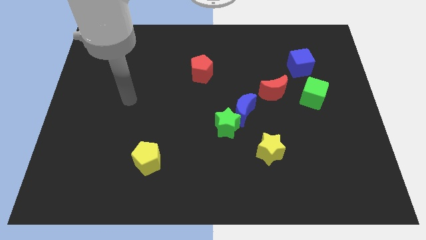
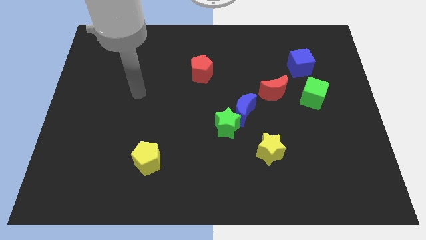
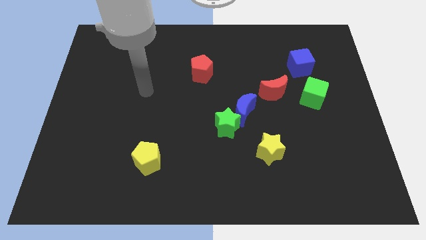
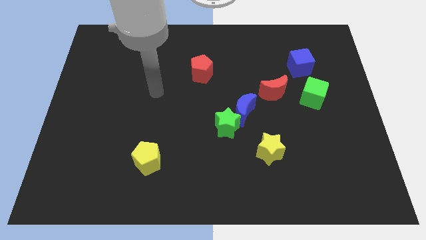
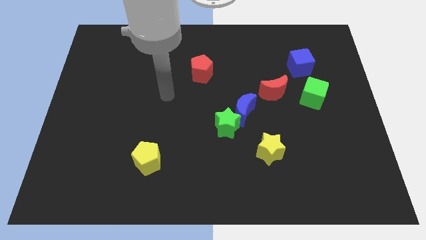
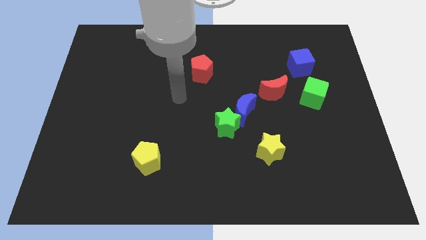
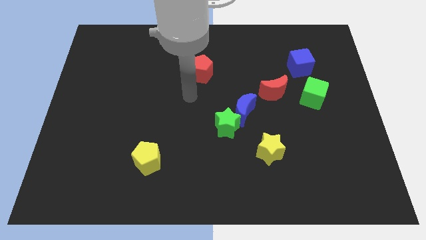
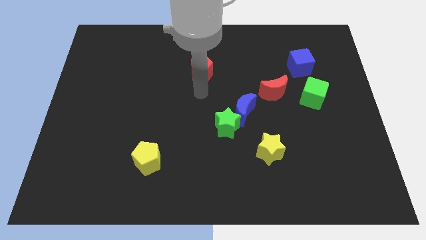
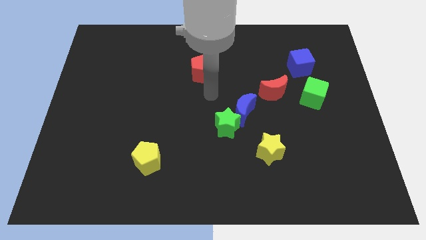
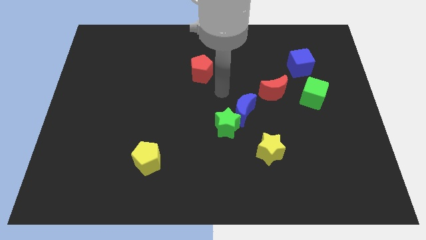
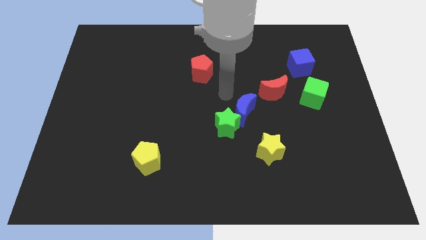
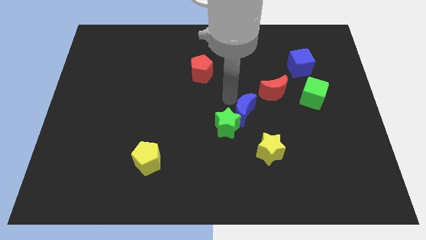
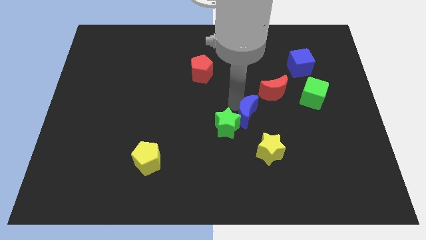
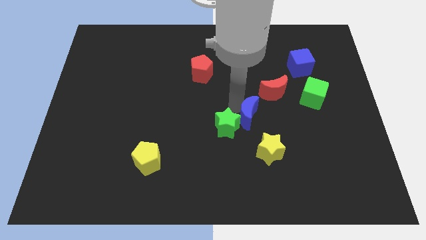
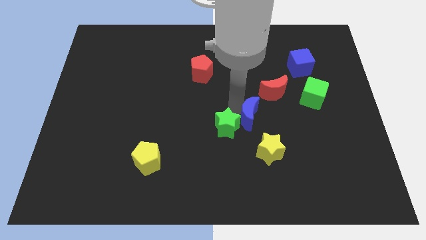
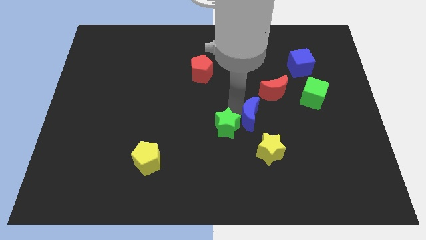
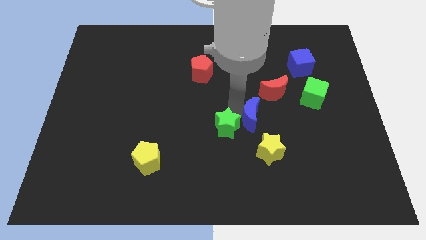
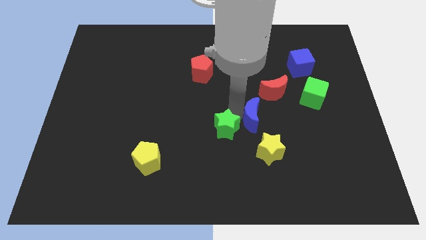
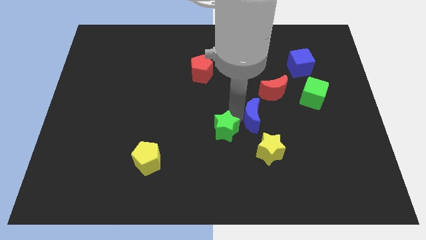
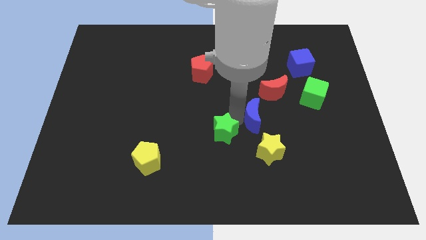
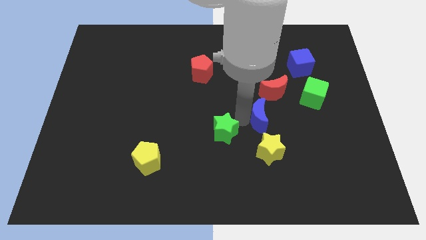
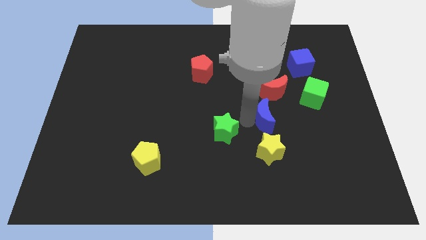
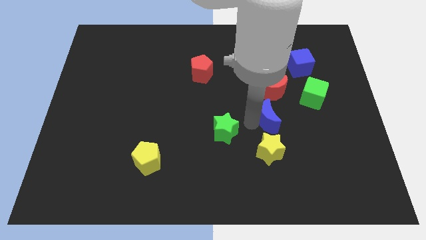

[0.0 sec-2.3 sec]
move the green star away from the blue moon

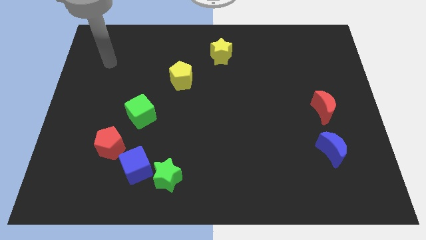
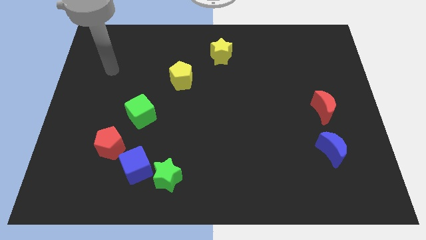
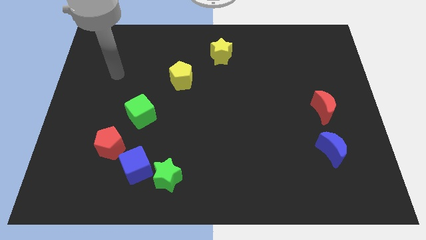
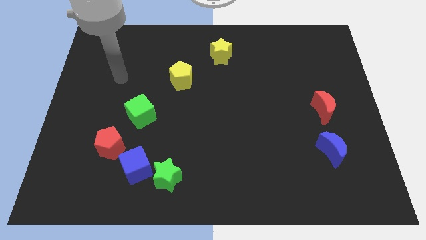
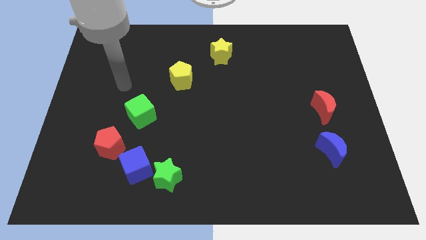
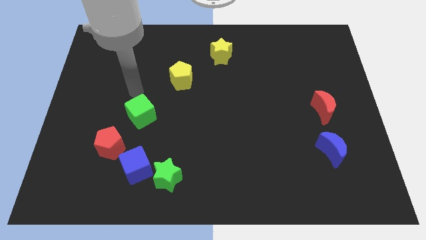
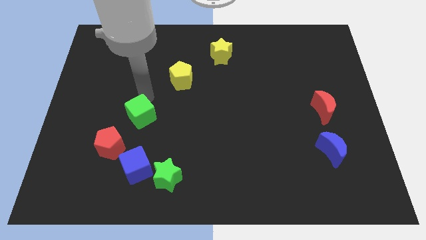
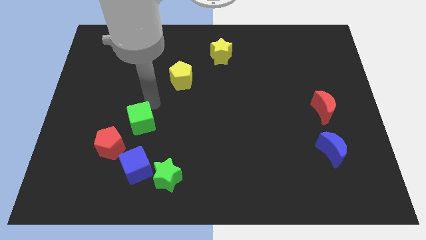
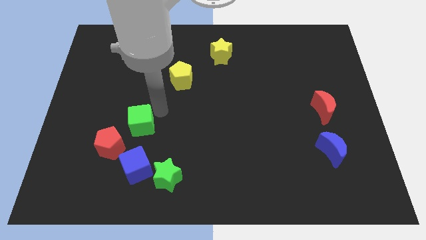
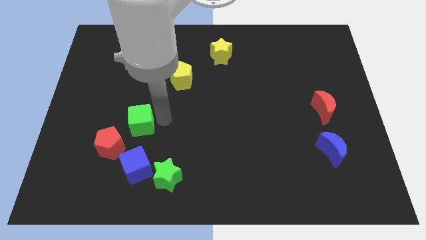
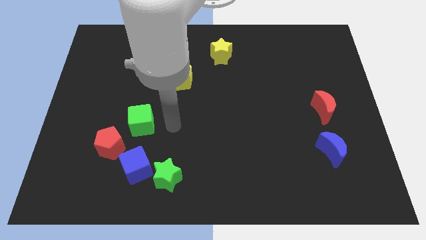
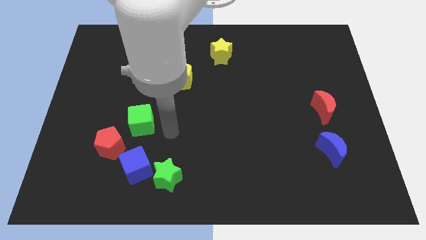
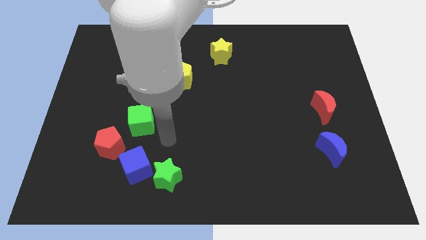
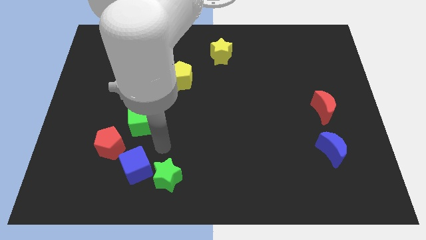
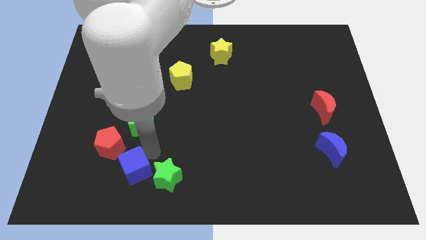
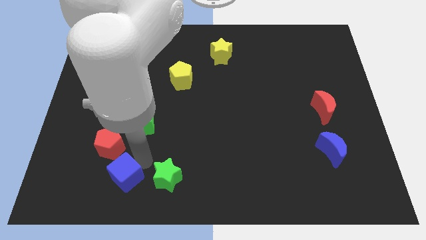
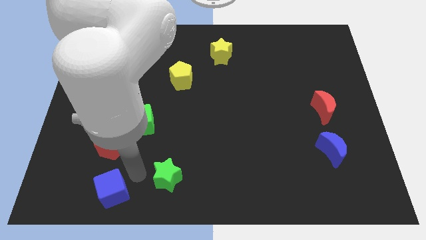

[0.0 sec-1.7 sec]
move the green star away from the blue cube

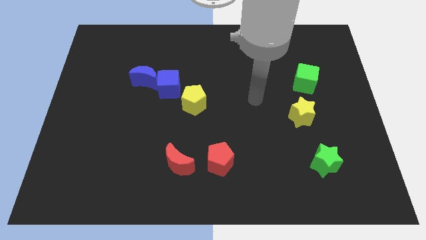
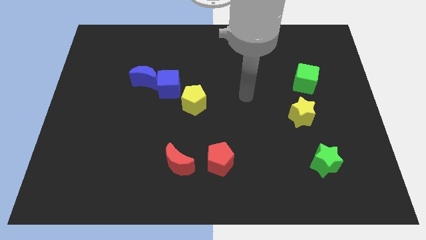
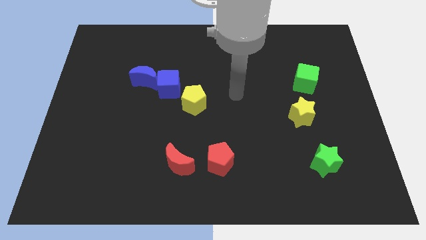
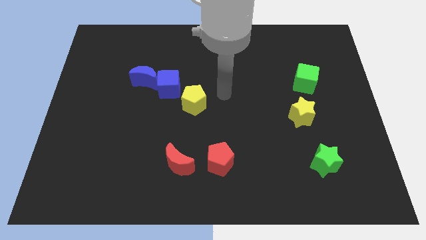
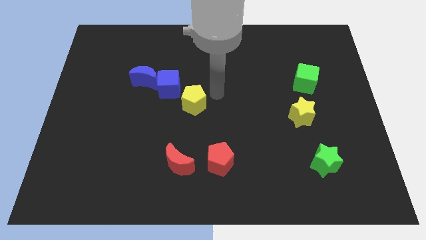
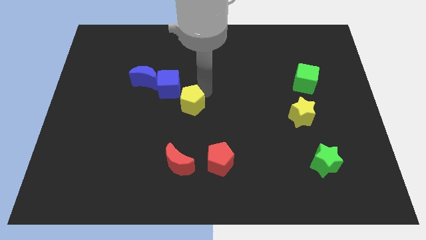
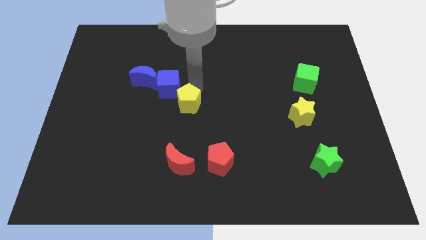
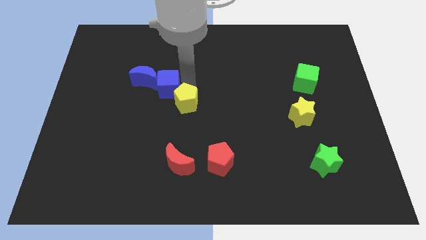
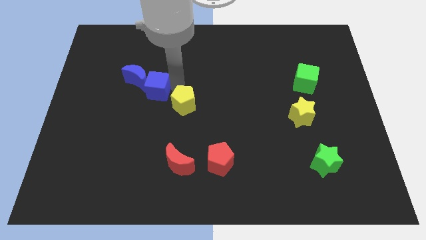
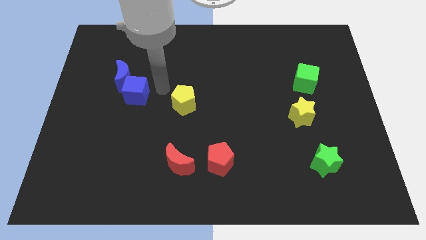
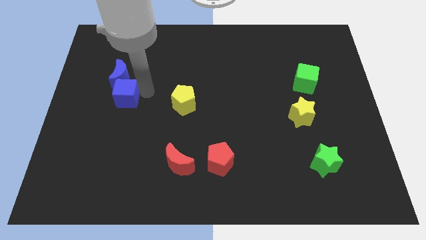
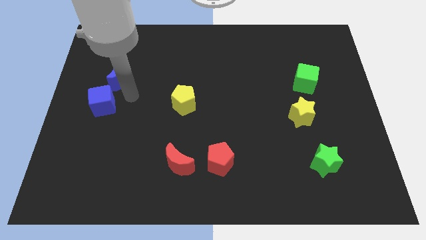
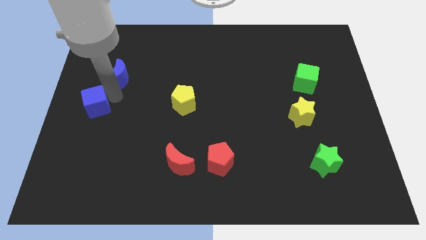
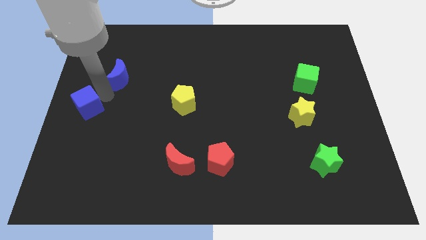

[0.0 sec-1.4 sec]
separate the blue moon from the blue cube

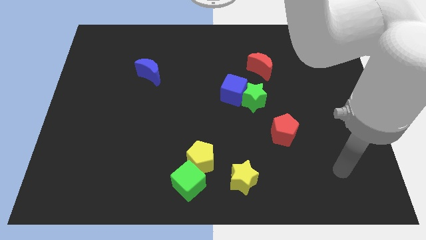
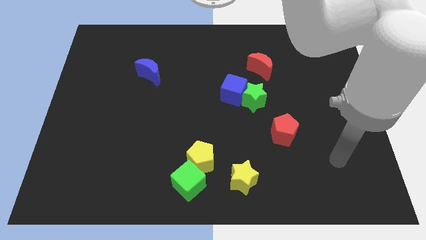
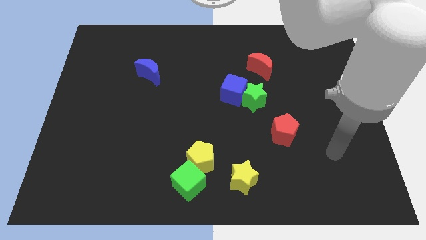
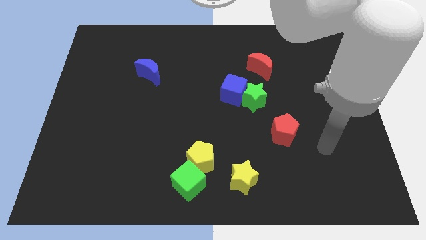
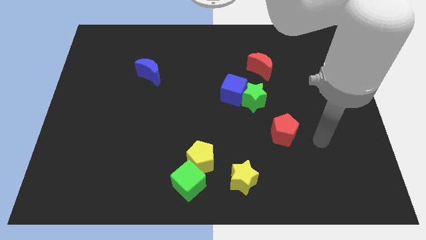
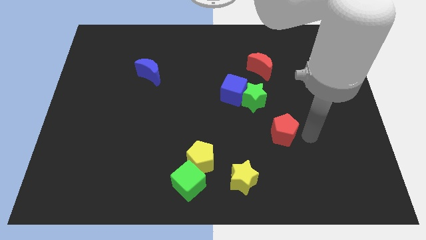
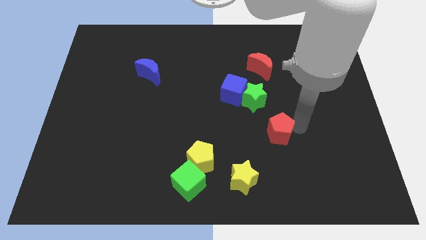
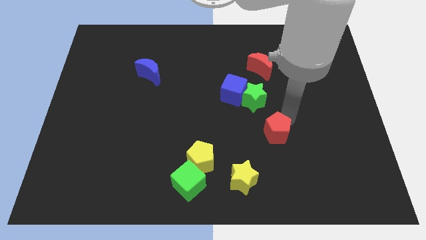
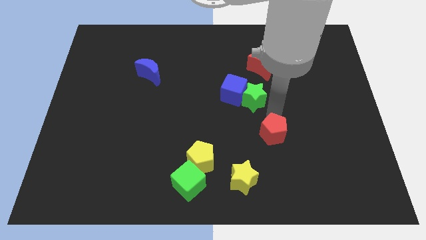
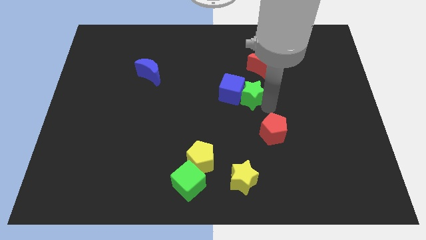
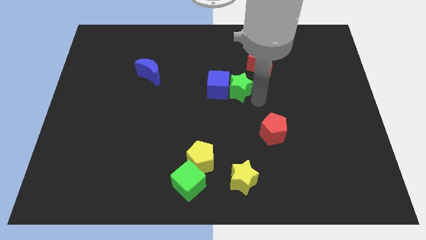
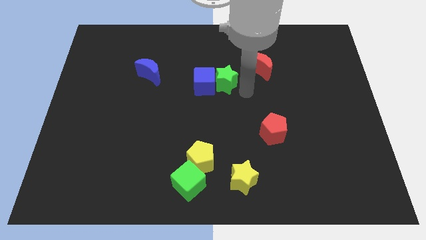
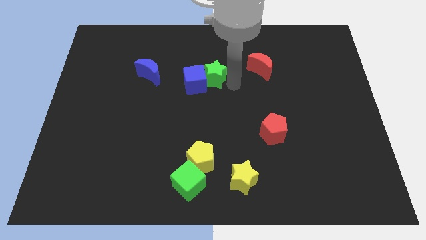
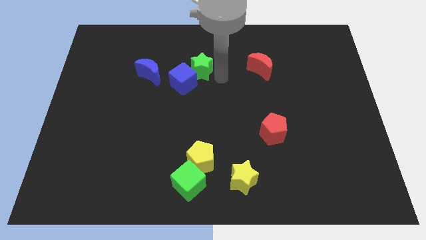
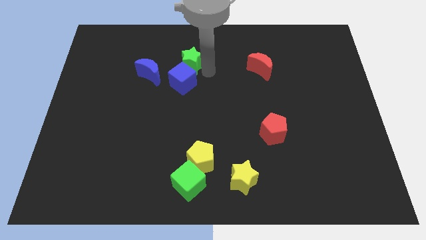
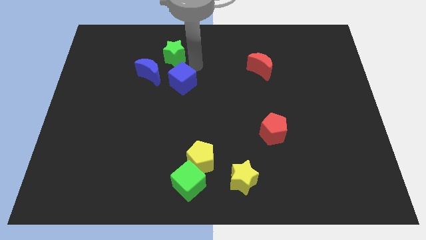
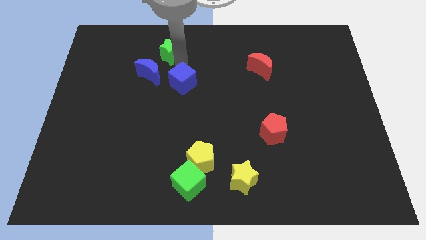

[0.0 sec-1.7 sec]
pull the blue cube apart from the green star

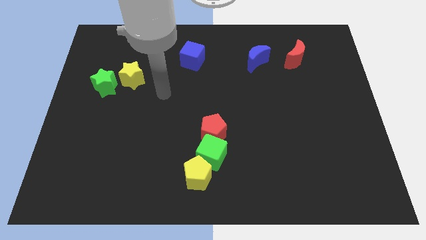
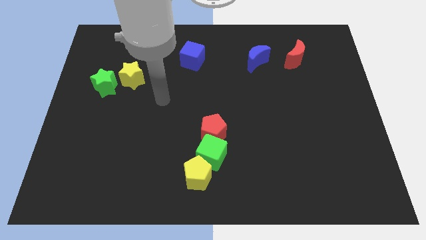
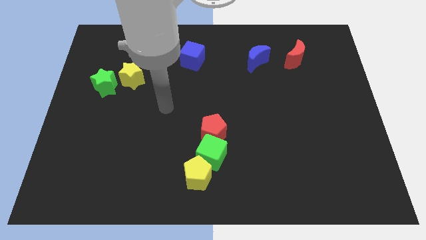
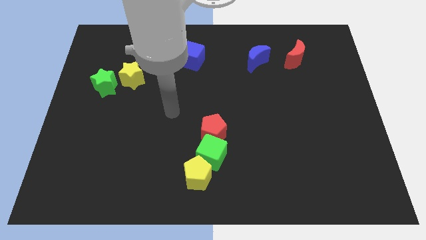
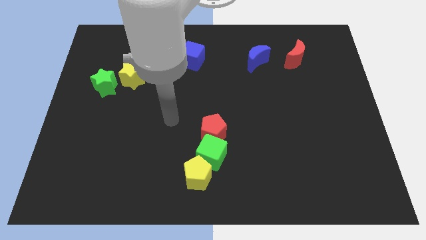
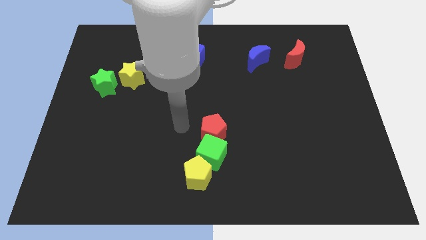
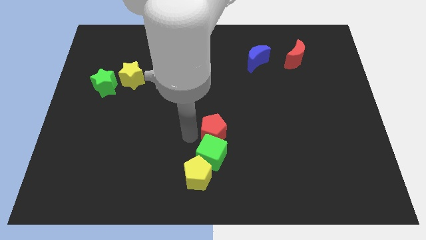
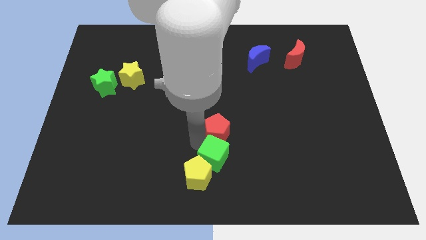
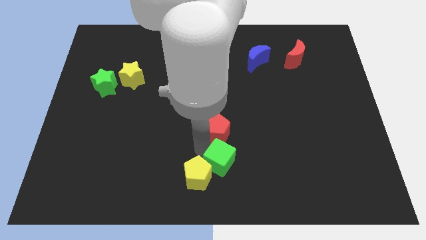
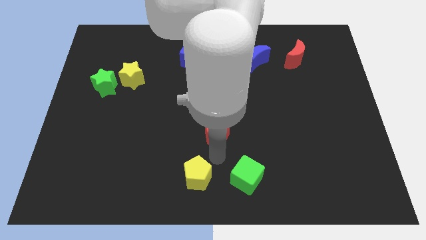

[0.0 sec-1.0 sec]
separate the red pentagon from the green cube

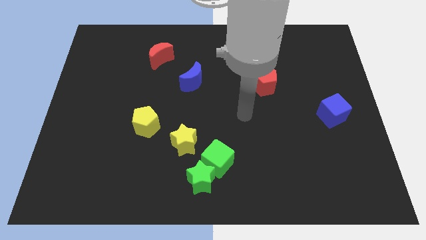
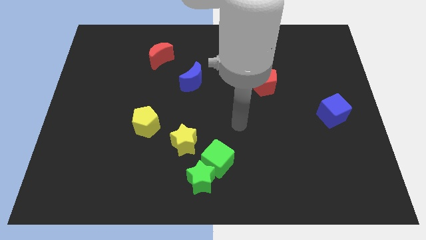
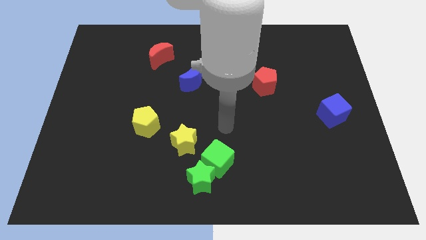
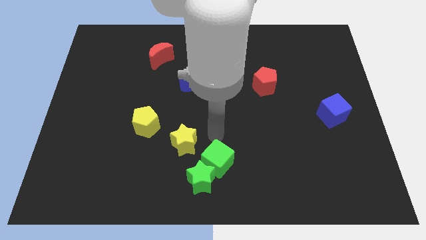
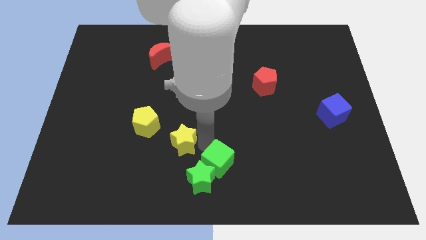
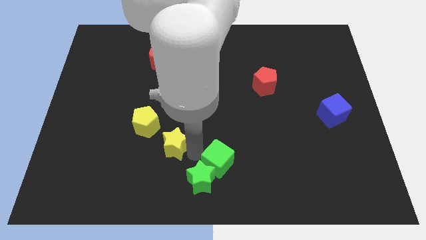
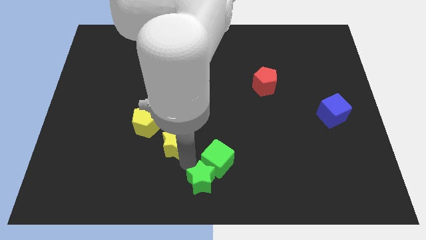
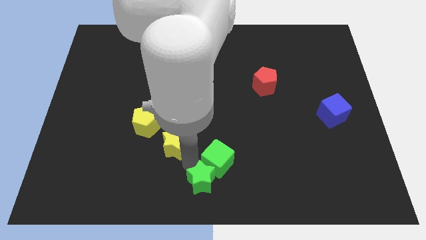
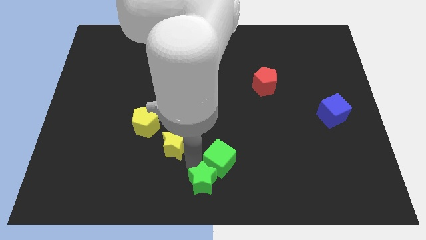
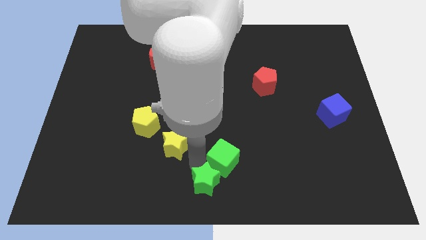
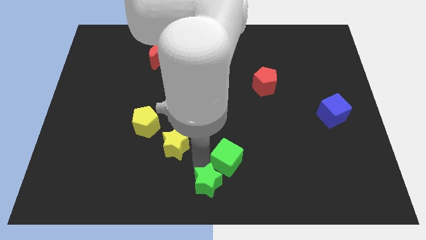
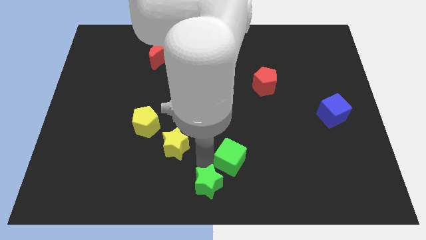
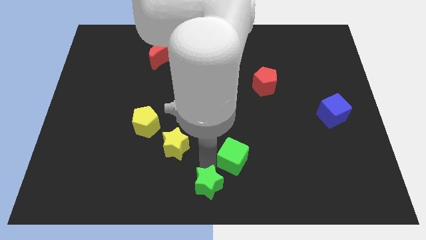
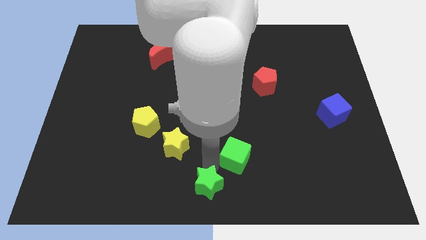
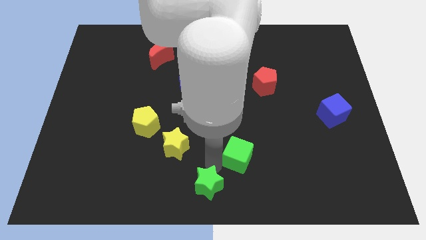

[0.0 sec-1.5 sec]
separate the green cube from the green star and yellow star
